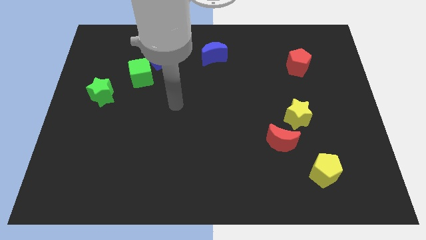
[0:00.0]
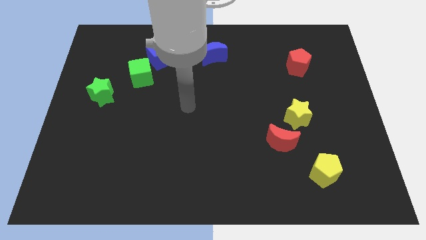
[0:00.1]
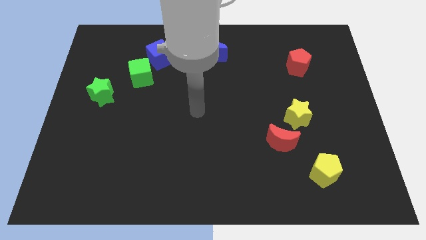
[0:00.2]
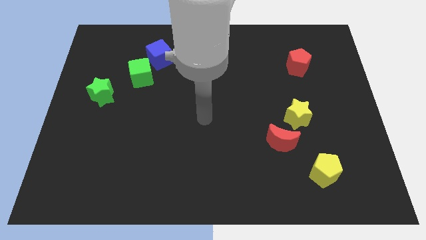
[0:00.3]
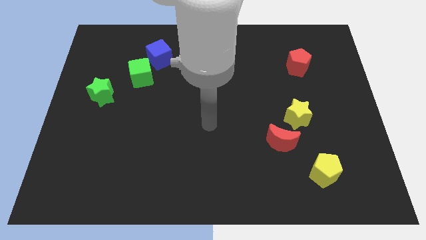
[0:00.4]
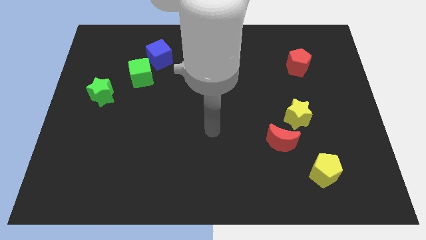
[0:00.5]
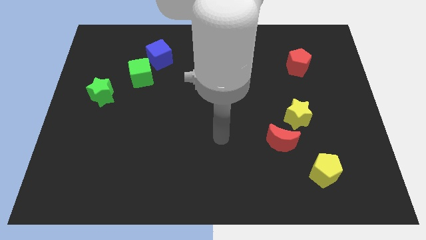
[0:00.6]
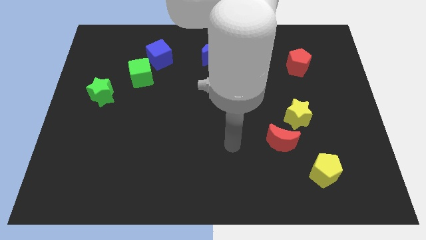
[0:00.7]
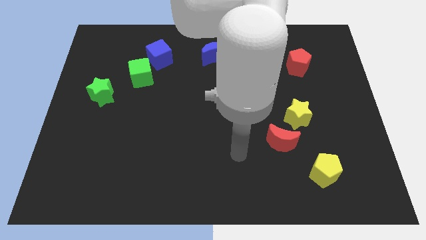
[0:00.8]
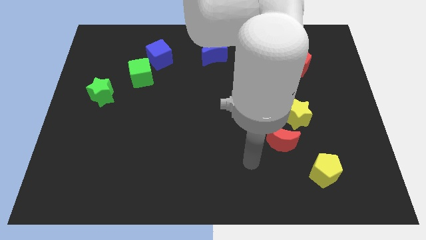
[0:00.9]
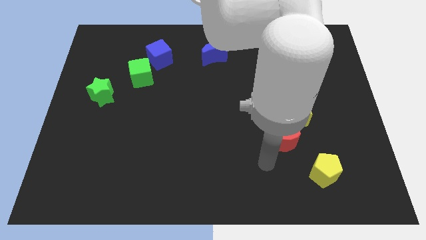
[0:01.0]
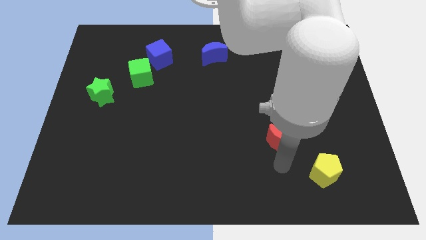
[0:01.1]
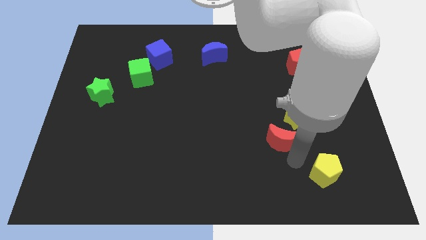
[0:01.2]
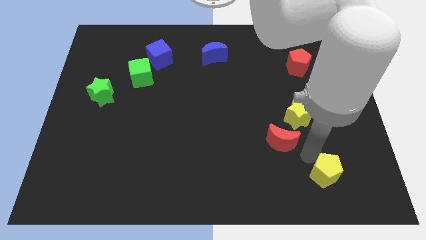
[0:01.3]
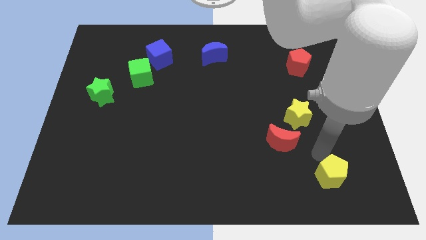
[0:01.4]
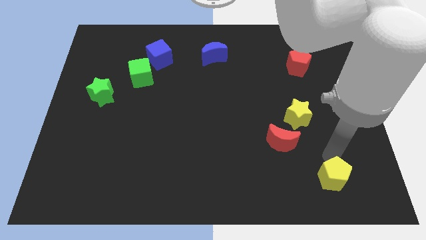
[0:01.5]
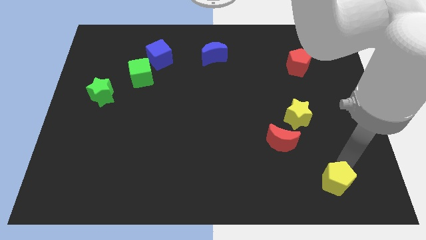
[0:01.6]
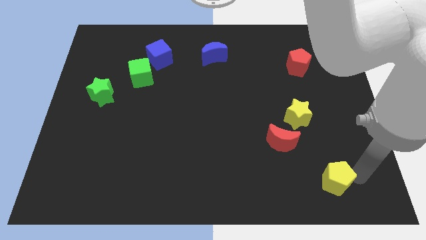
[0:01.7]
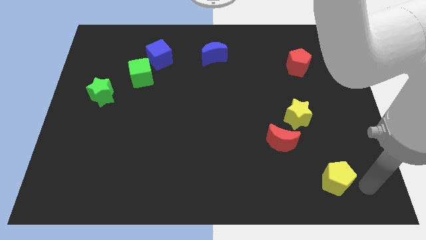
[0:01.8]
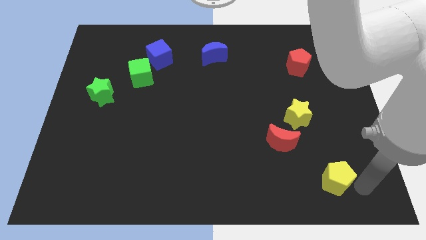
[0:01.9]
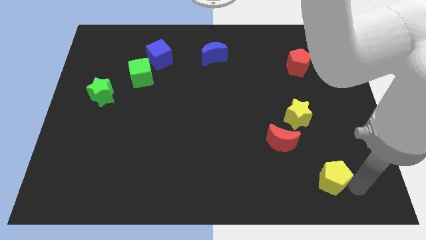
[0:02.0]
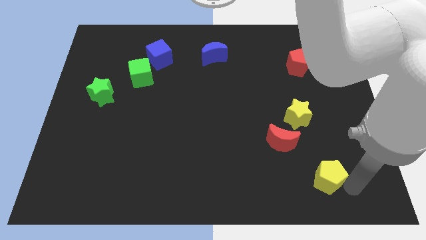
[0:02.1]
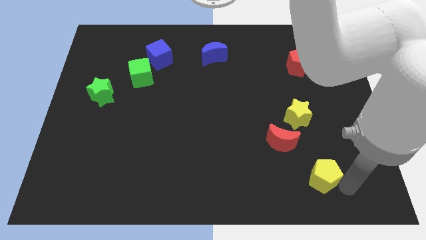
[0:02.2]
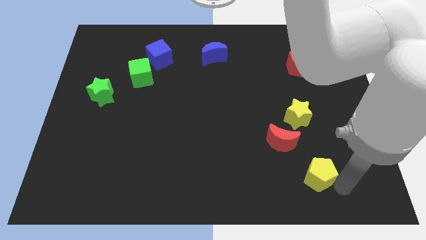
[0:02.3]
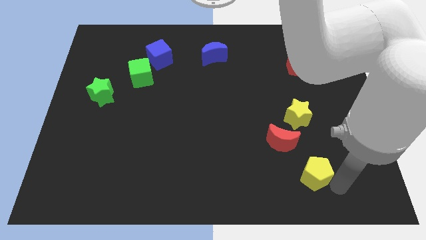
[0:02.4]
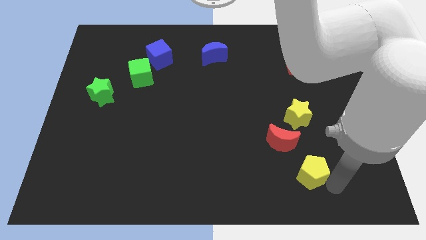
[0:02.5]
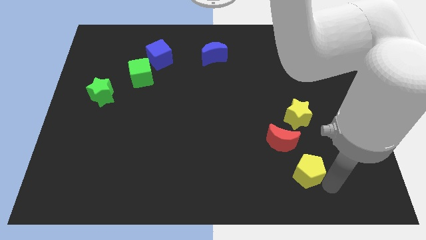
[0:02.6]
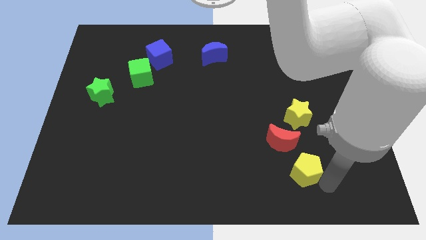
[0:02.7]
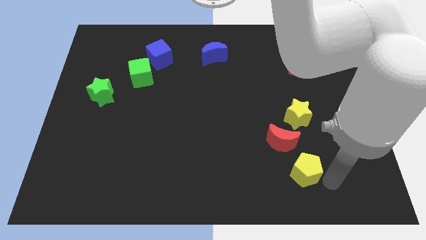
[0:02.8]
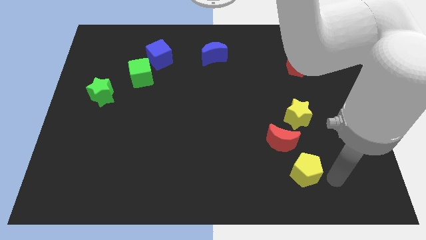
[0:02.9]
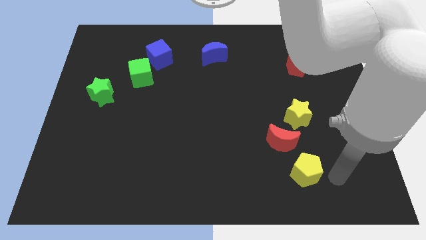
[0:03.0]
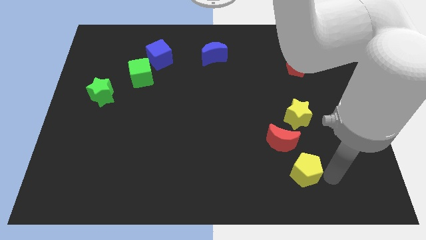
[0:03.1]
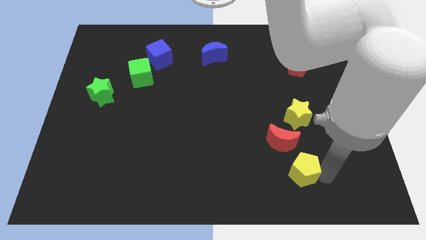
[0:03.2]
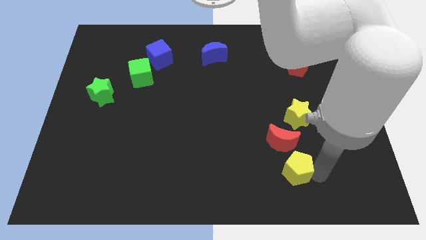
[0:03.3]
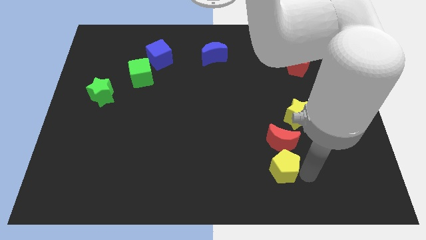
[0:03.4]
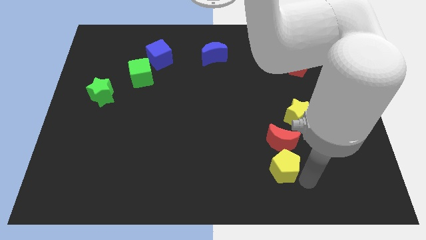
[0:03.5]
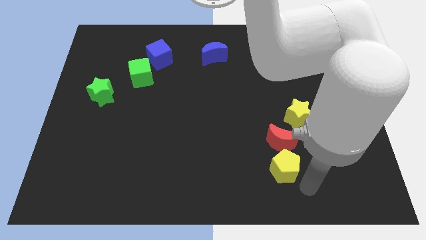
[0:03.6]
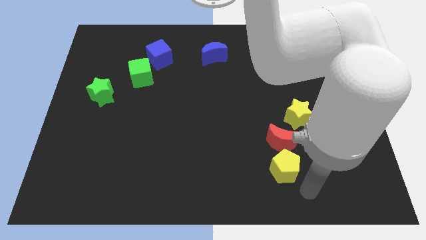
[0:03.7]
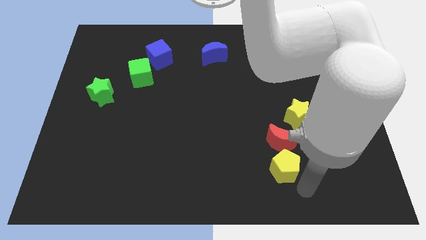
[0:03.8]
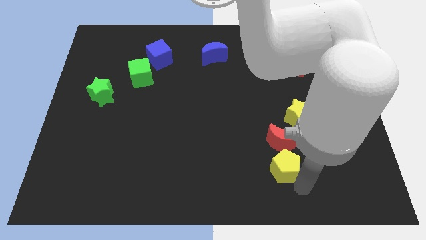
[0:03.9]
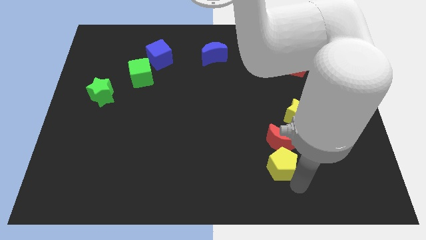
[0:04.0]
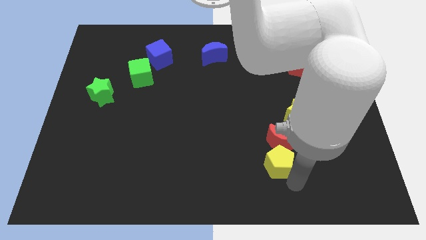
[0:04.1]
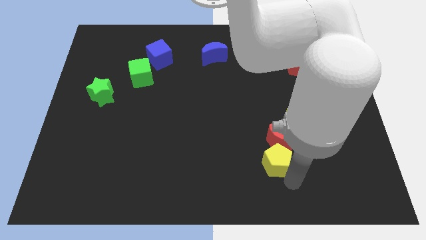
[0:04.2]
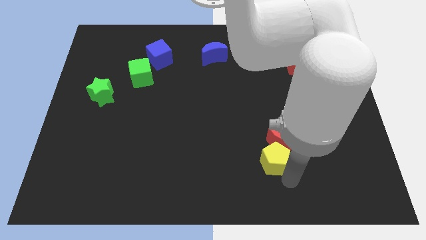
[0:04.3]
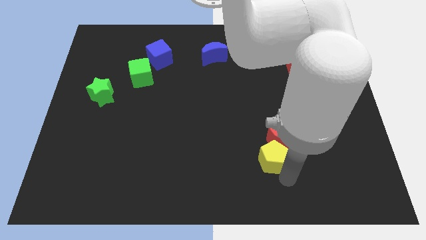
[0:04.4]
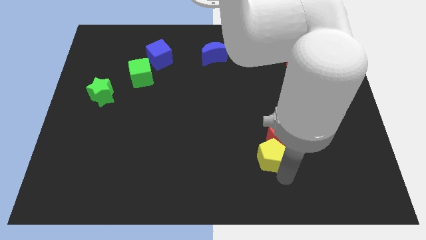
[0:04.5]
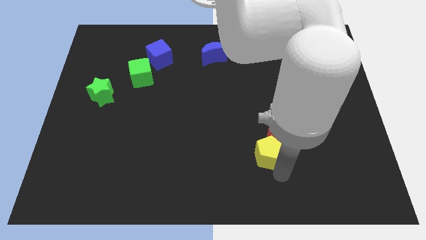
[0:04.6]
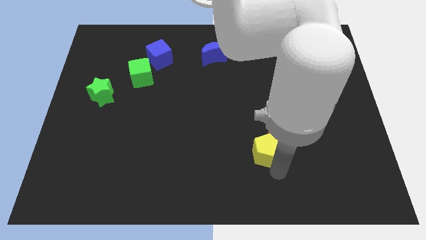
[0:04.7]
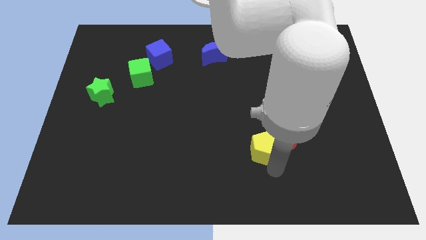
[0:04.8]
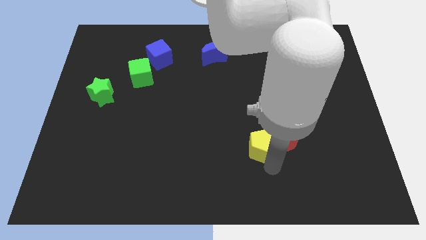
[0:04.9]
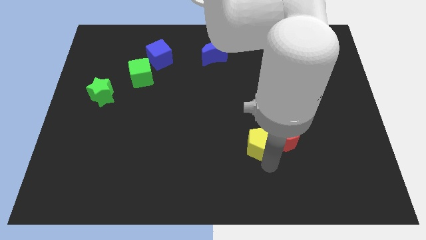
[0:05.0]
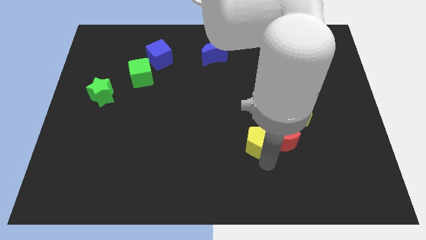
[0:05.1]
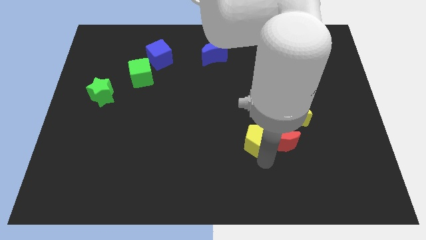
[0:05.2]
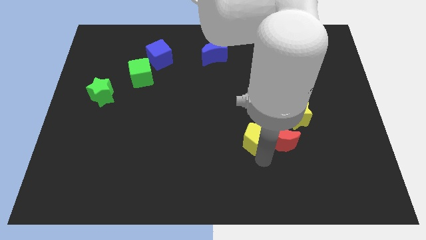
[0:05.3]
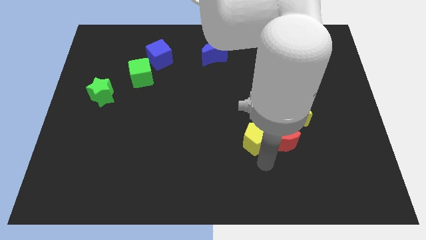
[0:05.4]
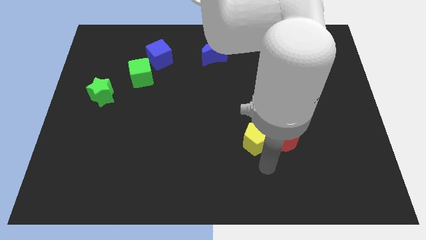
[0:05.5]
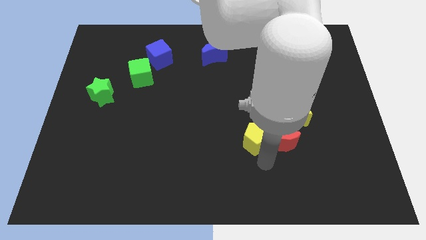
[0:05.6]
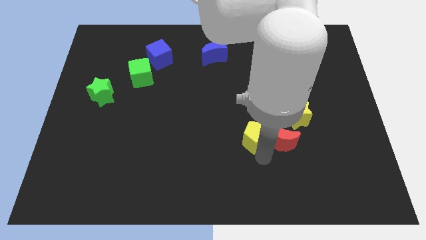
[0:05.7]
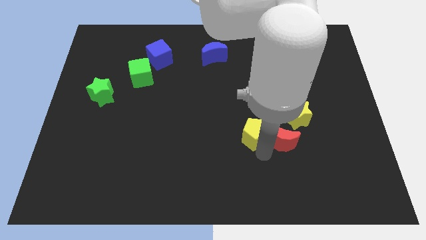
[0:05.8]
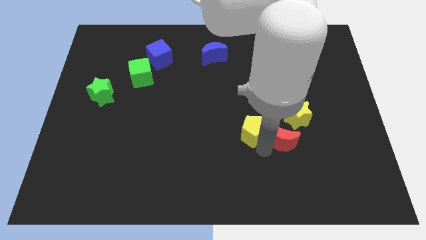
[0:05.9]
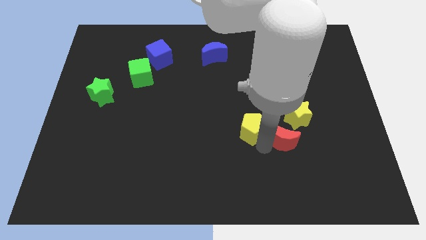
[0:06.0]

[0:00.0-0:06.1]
put the yellow pentagon to the center of the board

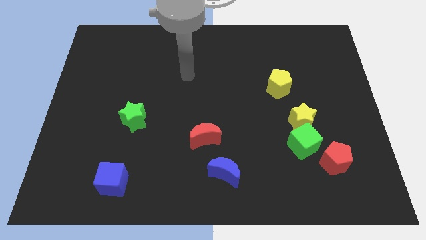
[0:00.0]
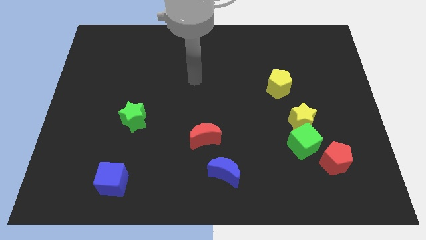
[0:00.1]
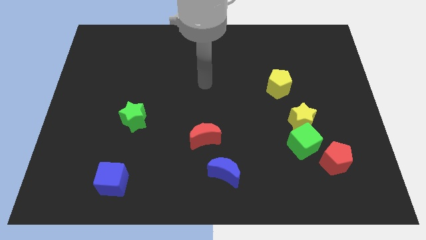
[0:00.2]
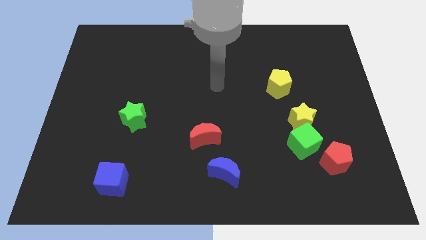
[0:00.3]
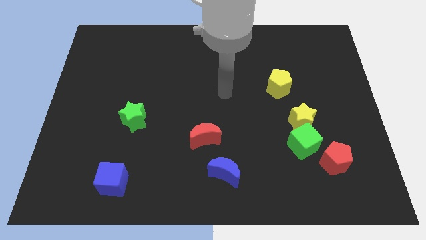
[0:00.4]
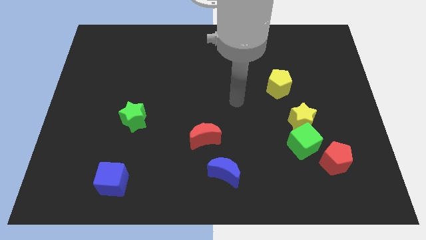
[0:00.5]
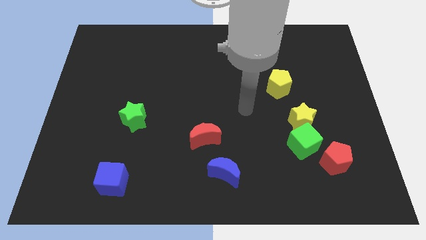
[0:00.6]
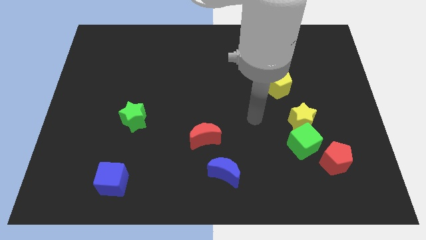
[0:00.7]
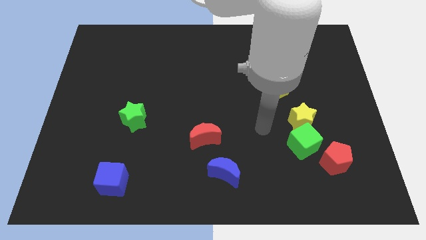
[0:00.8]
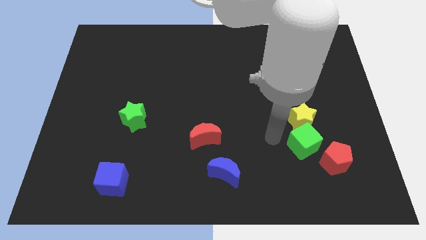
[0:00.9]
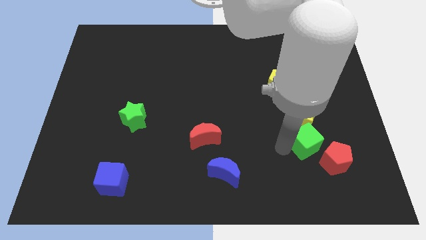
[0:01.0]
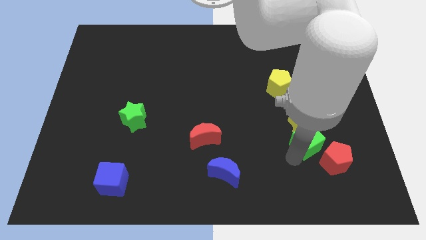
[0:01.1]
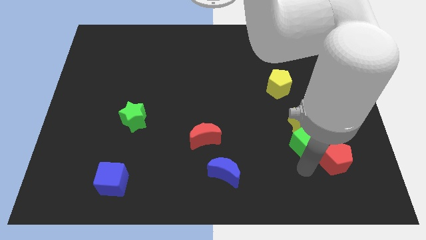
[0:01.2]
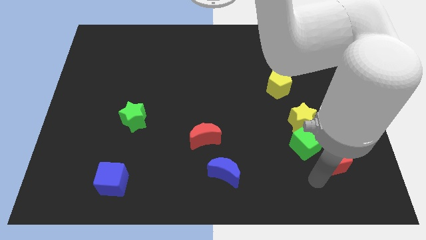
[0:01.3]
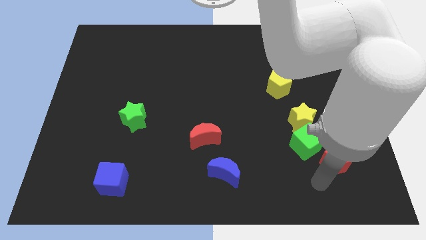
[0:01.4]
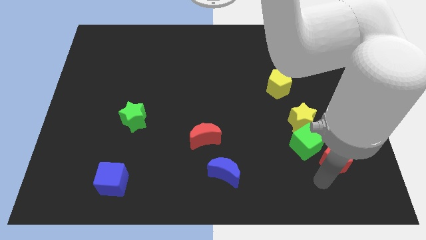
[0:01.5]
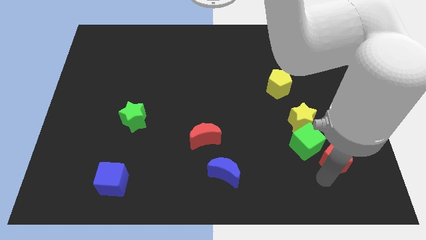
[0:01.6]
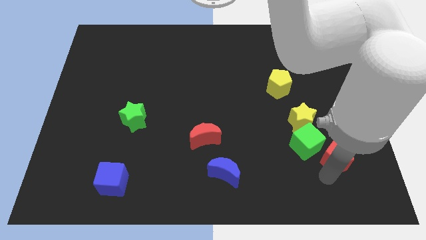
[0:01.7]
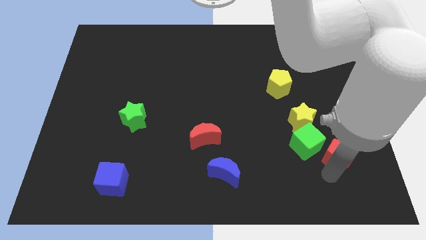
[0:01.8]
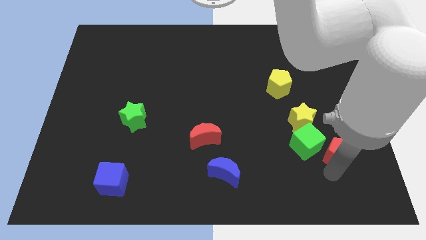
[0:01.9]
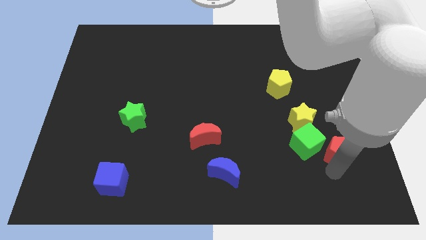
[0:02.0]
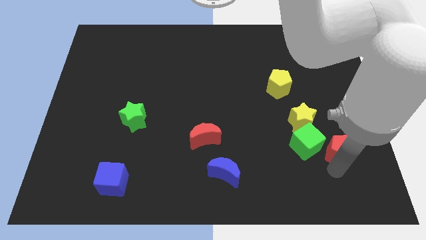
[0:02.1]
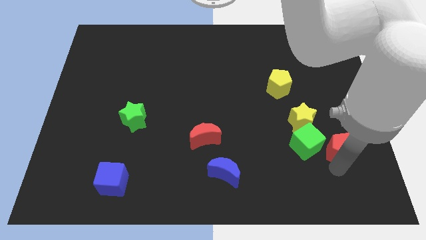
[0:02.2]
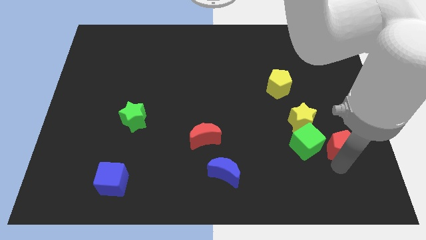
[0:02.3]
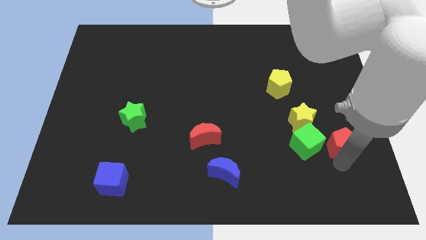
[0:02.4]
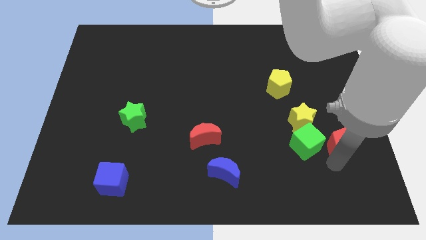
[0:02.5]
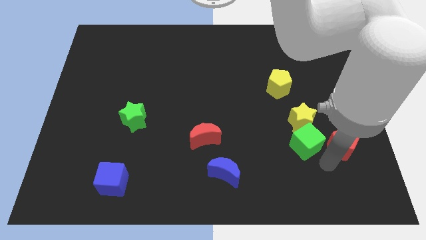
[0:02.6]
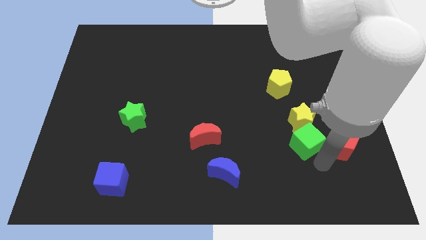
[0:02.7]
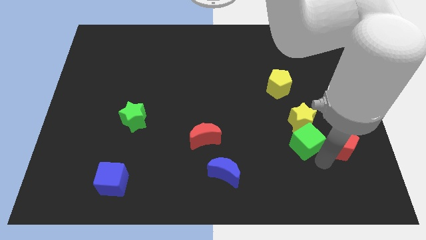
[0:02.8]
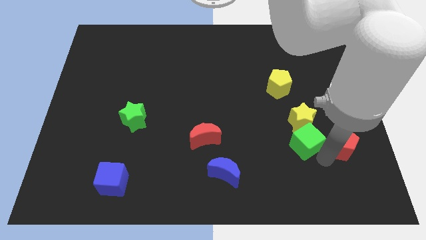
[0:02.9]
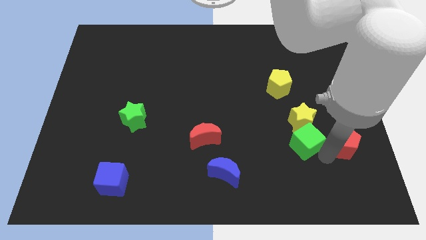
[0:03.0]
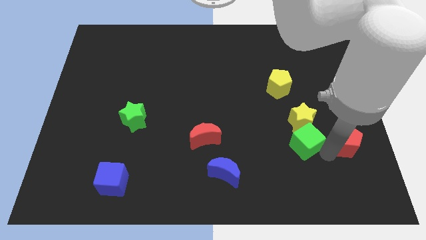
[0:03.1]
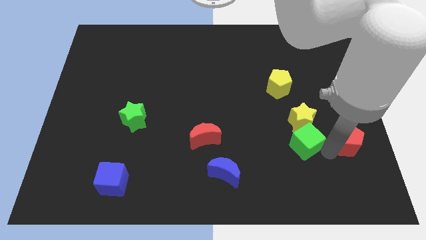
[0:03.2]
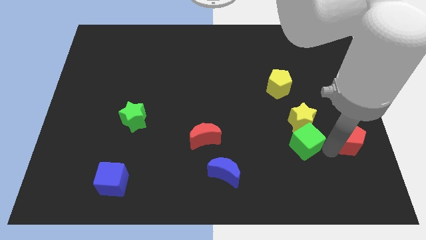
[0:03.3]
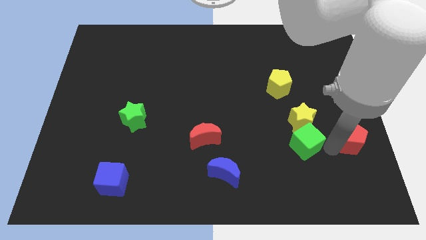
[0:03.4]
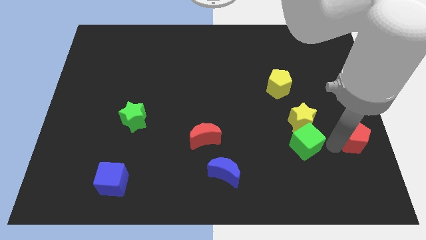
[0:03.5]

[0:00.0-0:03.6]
slide the red pentagon to the center right
